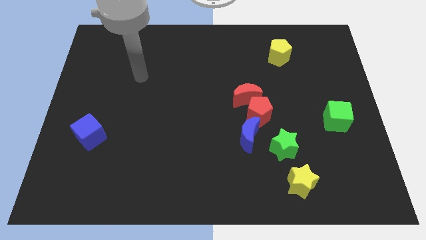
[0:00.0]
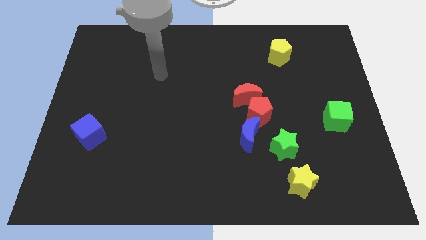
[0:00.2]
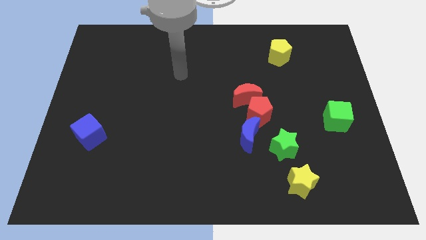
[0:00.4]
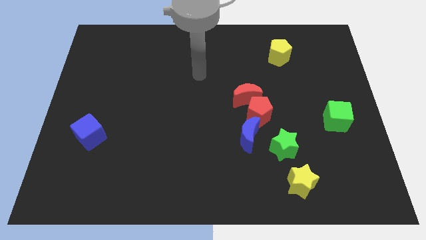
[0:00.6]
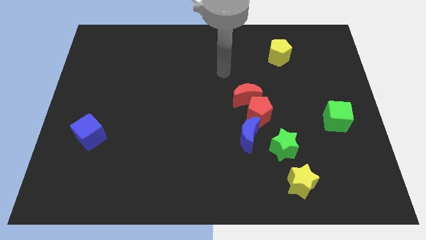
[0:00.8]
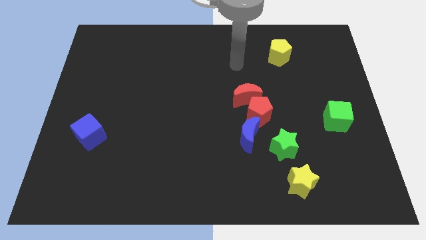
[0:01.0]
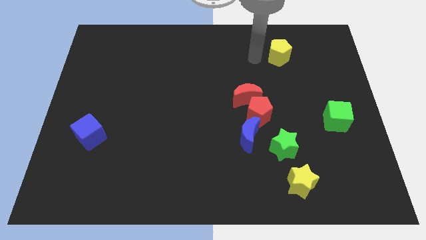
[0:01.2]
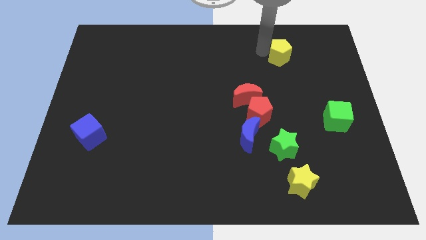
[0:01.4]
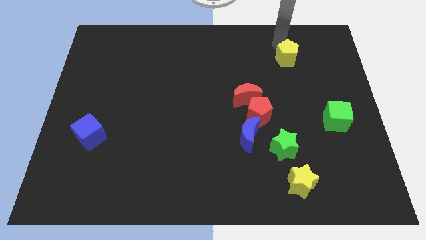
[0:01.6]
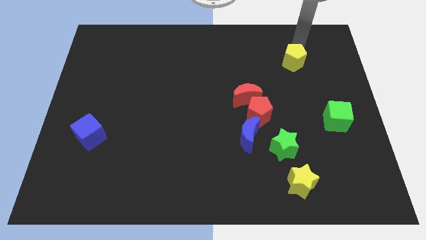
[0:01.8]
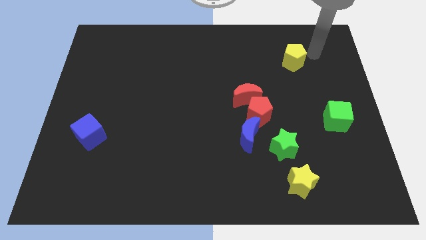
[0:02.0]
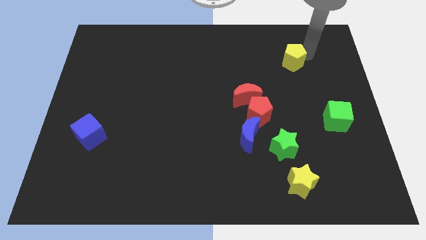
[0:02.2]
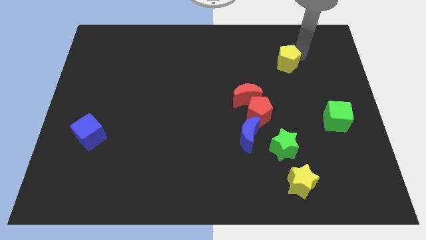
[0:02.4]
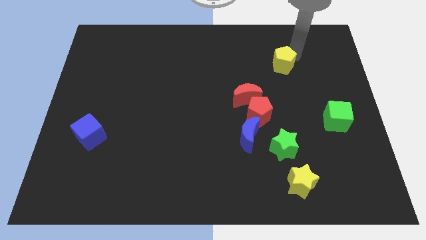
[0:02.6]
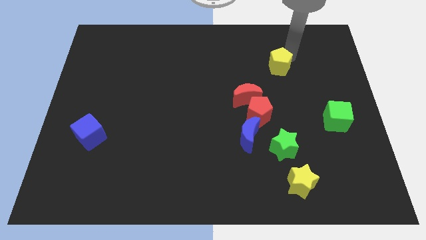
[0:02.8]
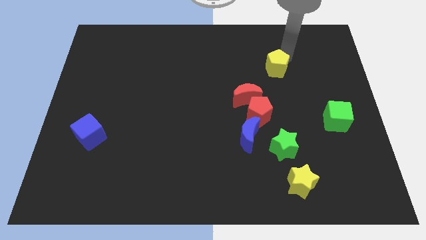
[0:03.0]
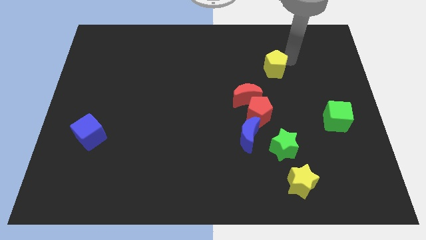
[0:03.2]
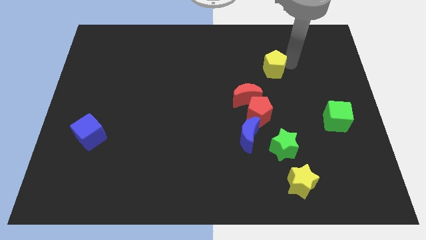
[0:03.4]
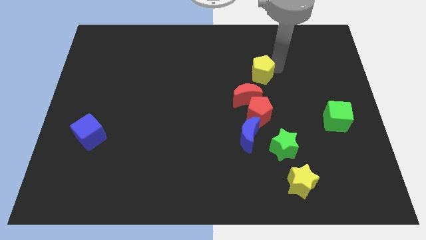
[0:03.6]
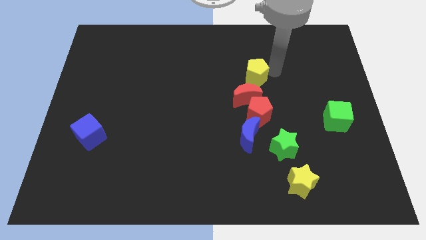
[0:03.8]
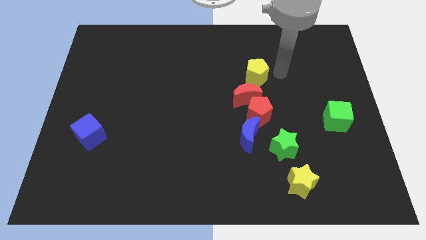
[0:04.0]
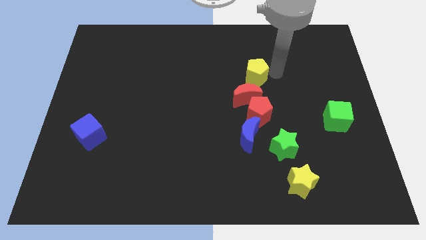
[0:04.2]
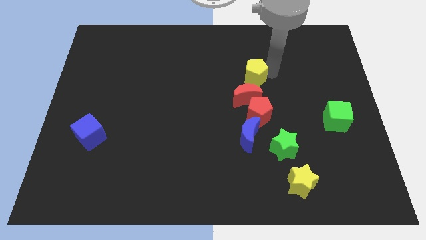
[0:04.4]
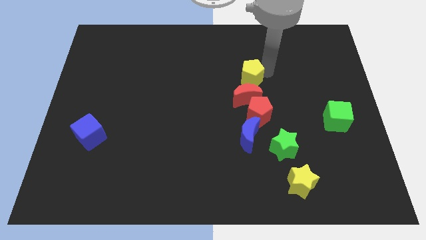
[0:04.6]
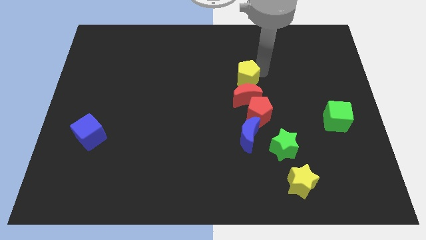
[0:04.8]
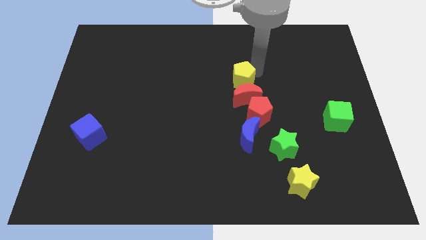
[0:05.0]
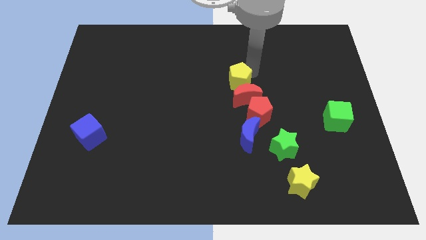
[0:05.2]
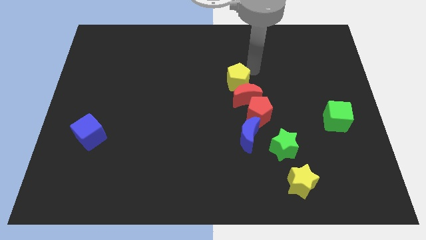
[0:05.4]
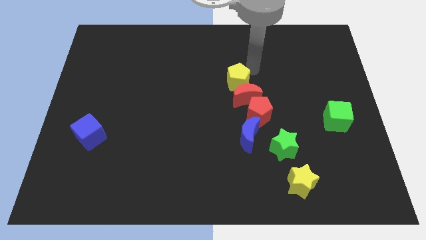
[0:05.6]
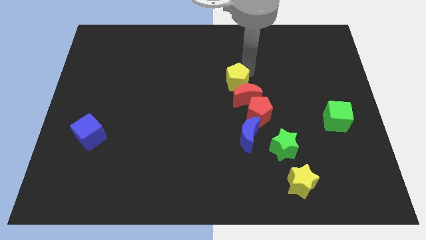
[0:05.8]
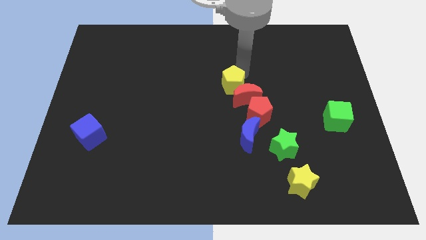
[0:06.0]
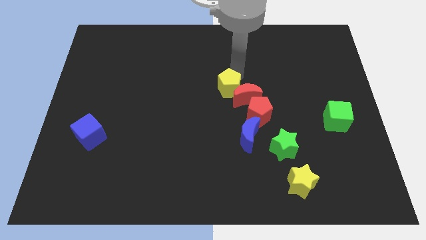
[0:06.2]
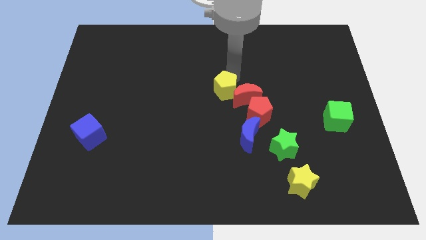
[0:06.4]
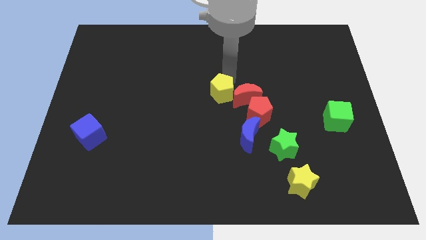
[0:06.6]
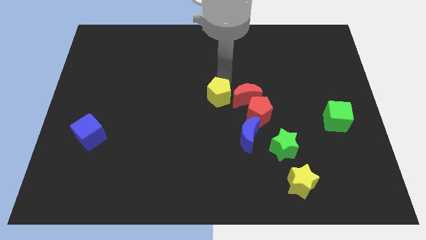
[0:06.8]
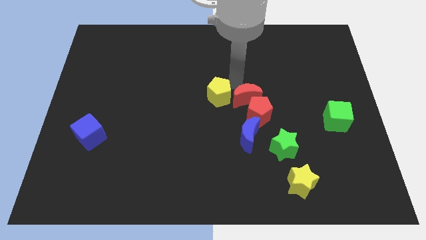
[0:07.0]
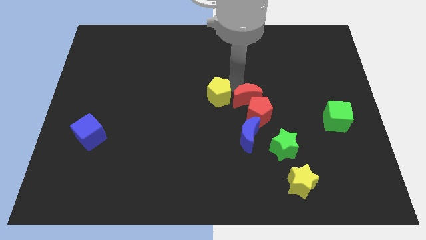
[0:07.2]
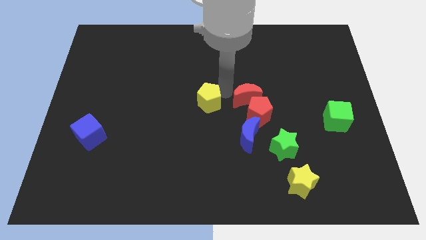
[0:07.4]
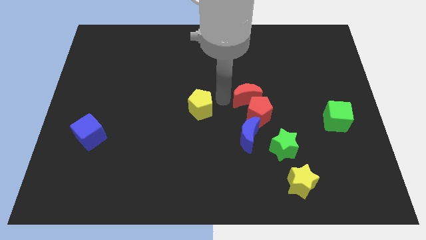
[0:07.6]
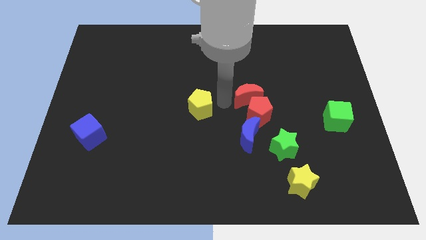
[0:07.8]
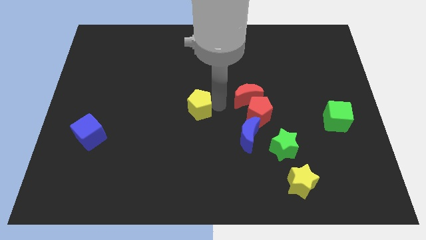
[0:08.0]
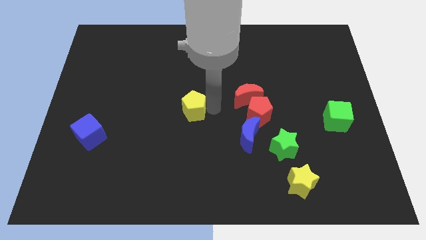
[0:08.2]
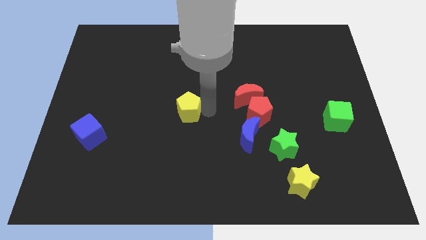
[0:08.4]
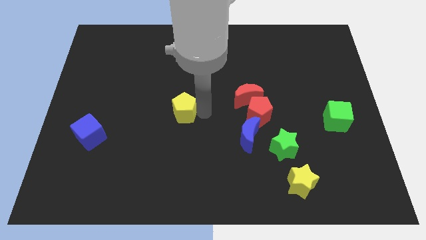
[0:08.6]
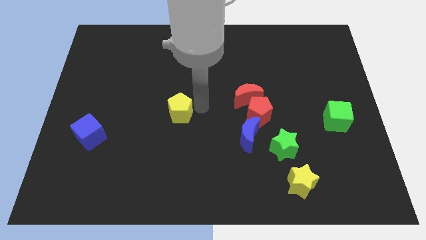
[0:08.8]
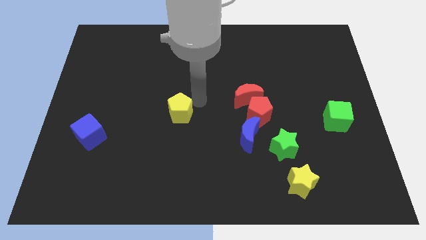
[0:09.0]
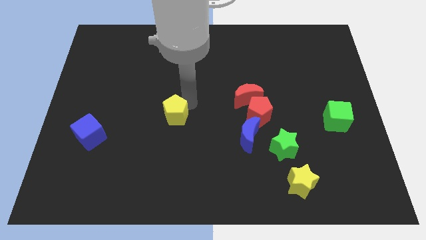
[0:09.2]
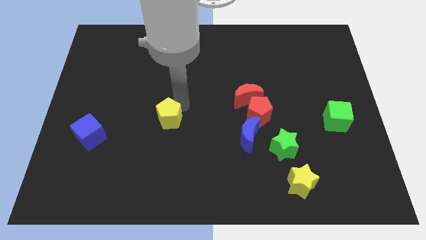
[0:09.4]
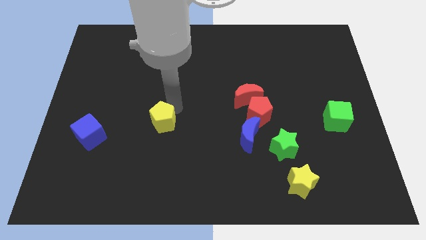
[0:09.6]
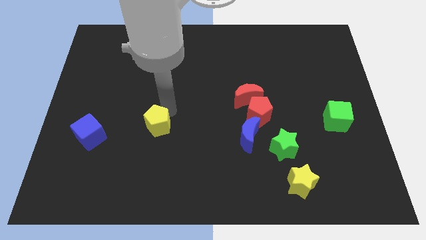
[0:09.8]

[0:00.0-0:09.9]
put the yellow pentagon just right of the blue cube

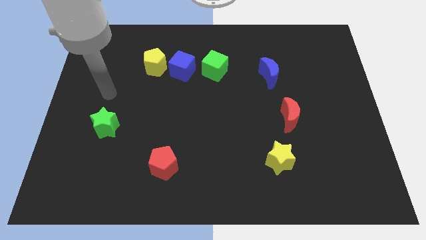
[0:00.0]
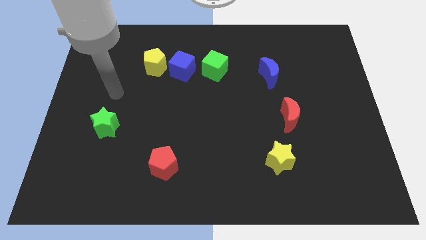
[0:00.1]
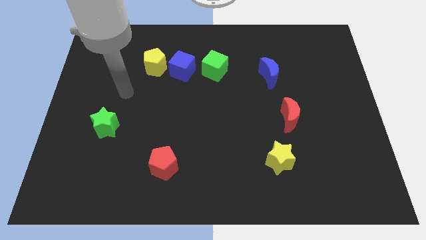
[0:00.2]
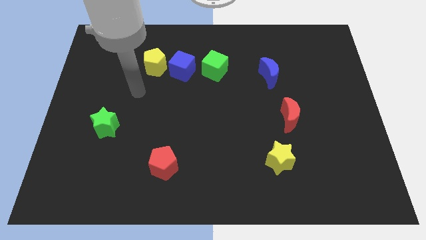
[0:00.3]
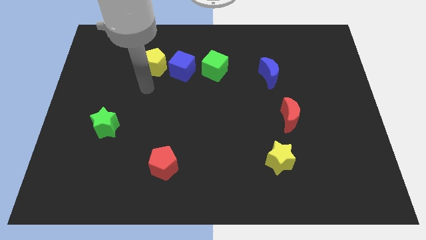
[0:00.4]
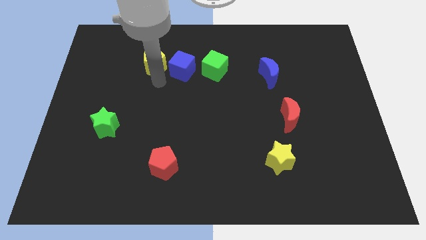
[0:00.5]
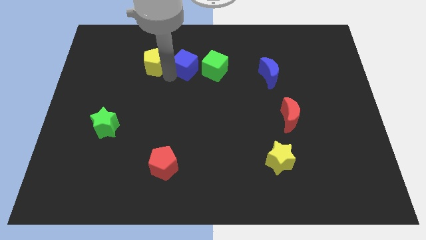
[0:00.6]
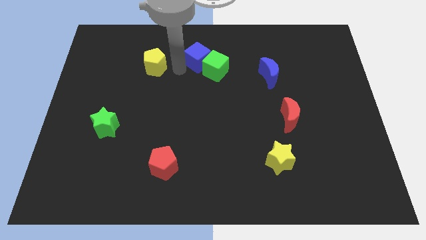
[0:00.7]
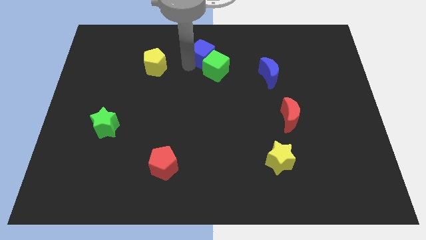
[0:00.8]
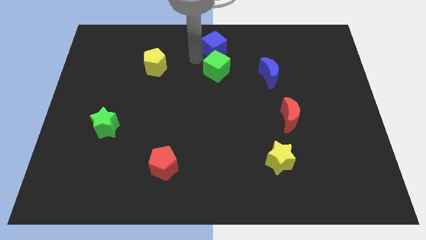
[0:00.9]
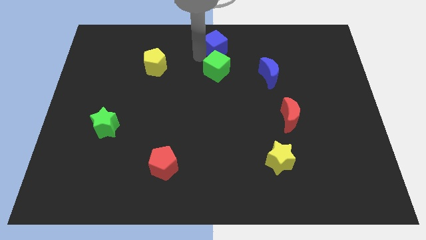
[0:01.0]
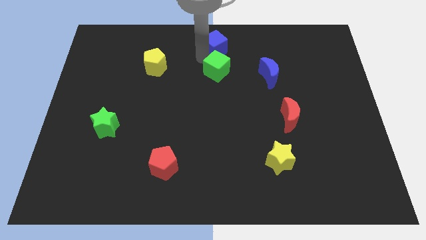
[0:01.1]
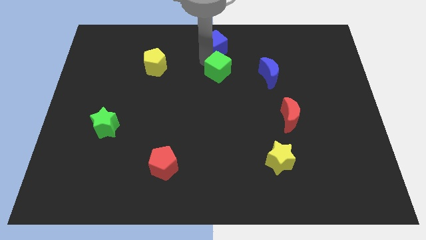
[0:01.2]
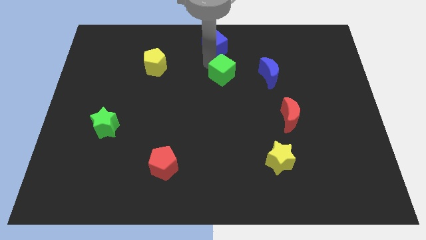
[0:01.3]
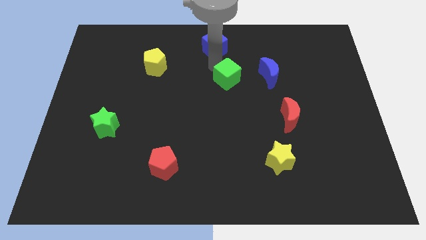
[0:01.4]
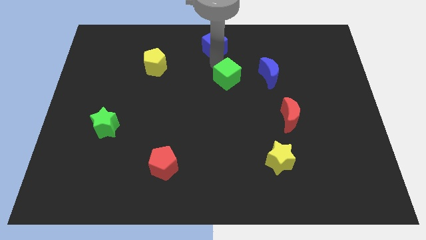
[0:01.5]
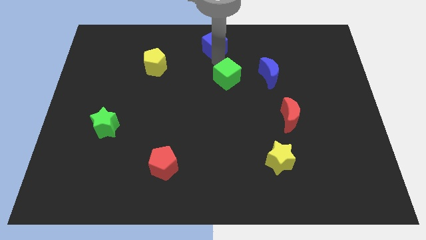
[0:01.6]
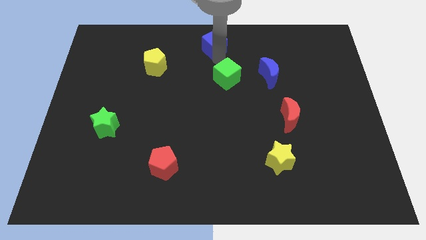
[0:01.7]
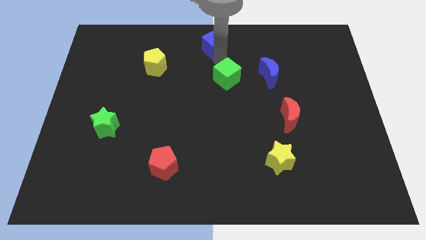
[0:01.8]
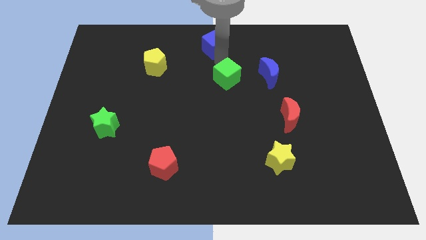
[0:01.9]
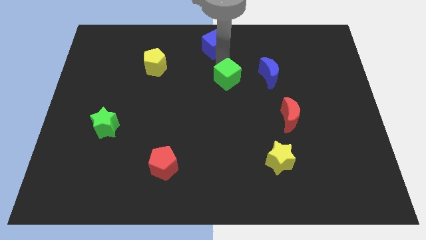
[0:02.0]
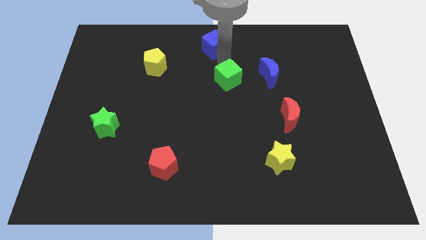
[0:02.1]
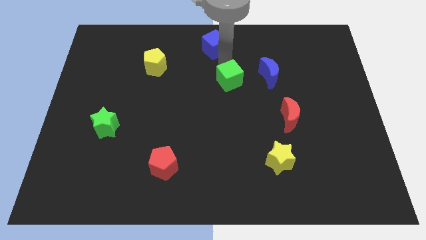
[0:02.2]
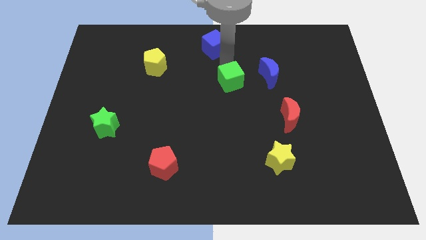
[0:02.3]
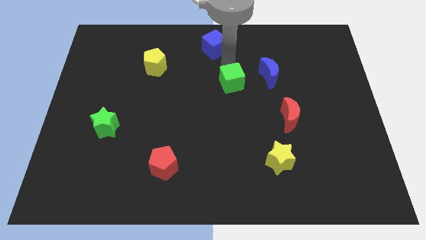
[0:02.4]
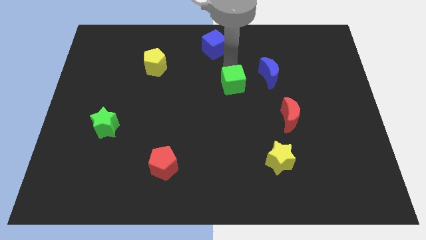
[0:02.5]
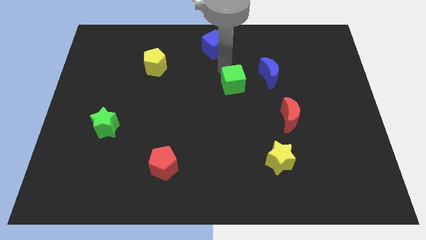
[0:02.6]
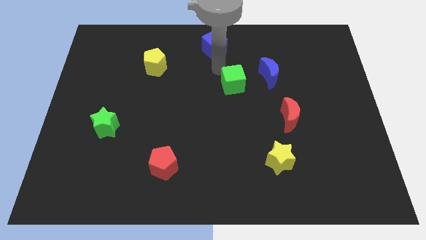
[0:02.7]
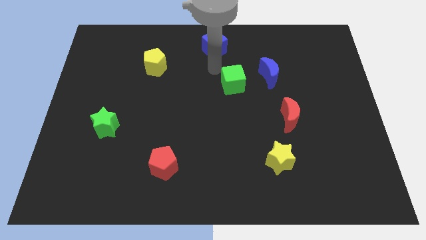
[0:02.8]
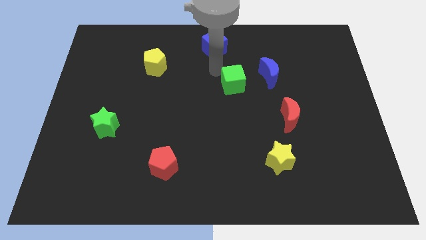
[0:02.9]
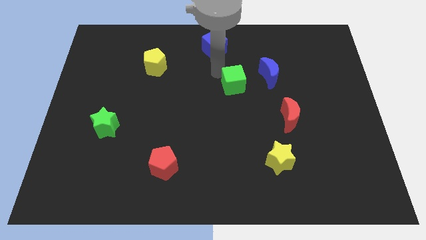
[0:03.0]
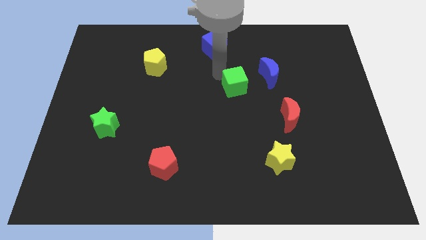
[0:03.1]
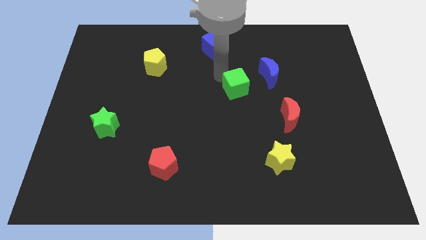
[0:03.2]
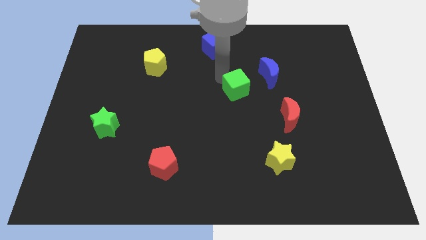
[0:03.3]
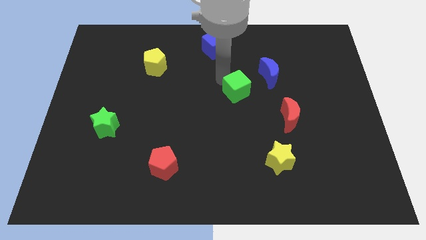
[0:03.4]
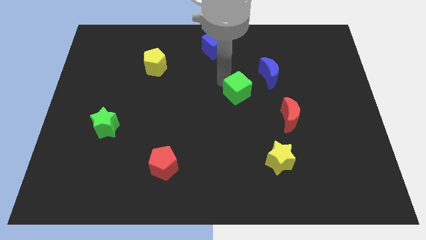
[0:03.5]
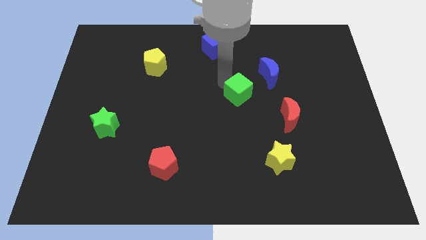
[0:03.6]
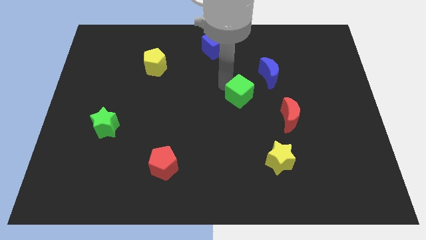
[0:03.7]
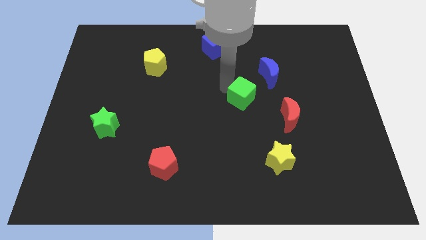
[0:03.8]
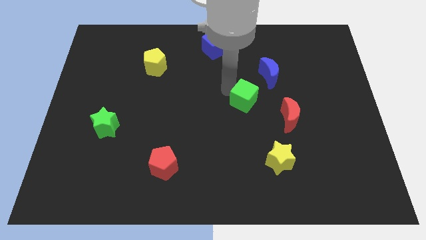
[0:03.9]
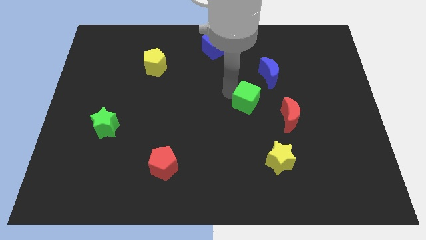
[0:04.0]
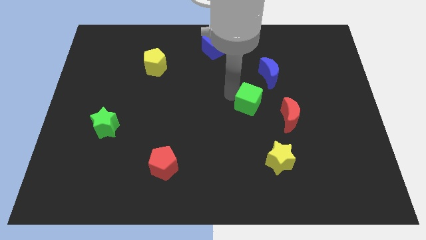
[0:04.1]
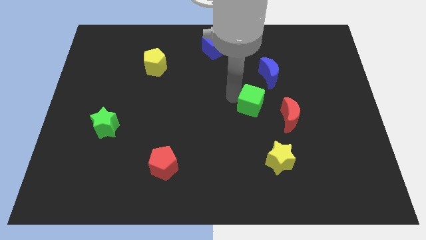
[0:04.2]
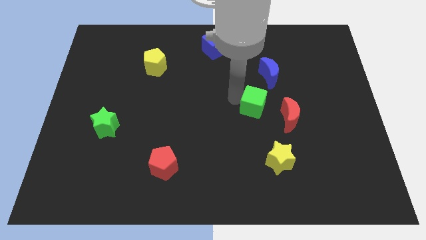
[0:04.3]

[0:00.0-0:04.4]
put the green cube to the bottom side of the blue moon
